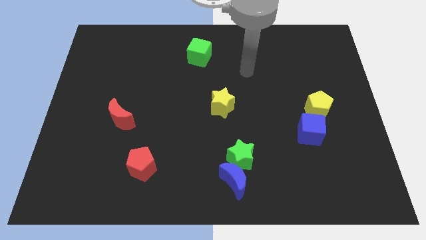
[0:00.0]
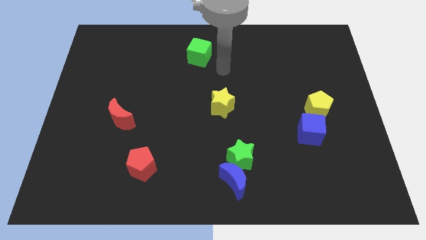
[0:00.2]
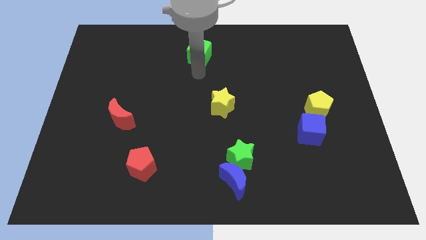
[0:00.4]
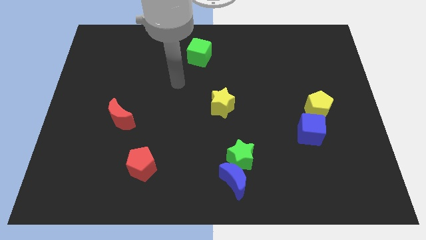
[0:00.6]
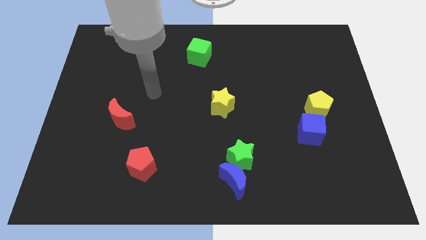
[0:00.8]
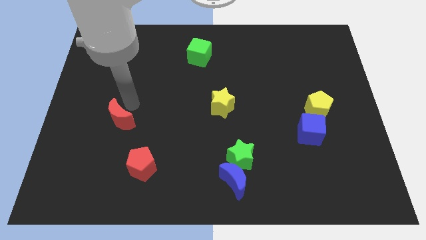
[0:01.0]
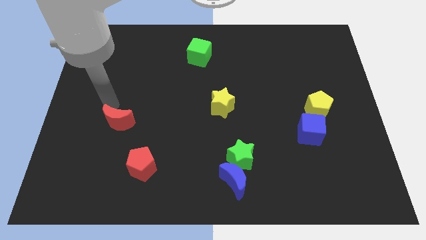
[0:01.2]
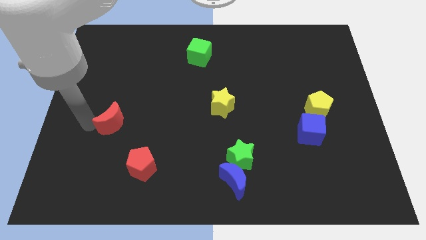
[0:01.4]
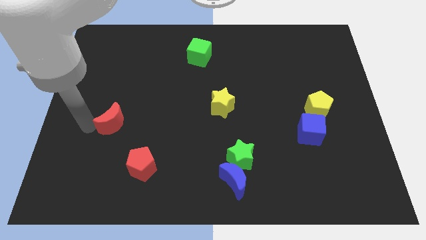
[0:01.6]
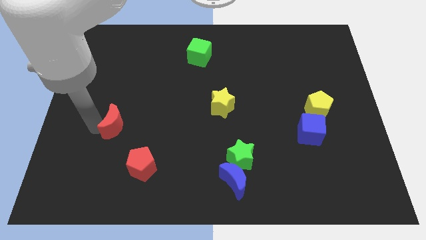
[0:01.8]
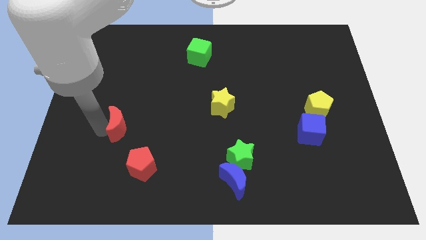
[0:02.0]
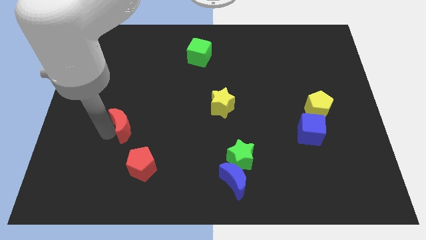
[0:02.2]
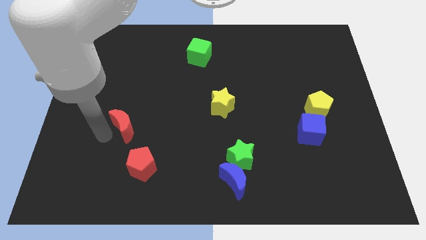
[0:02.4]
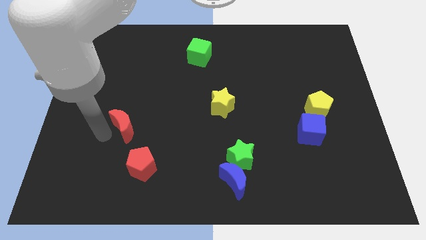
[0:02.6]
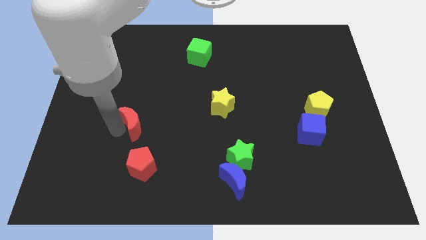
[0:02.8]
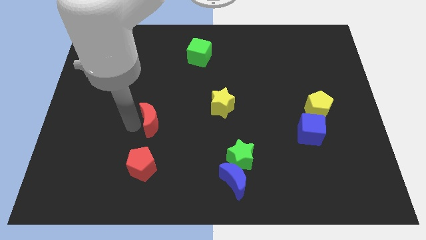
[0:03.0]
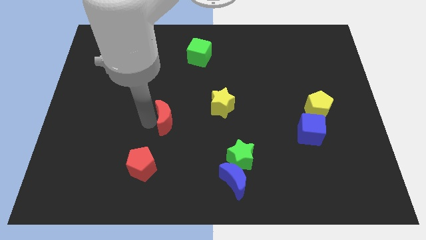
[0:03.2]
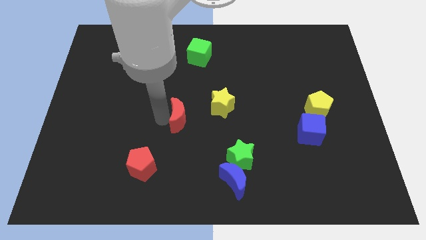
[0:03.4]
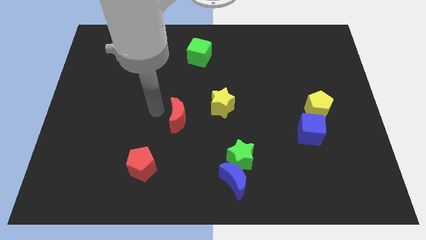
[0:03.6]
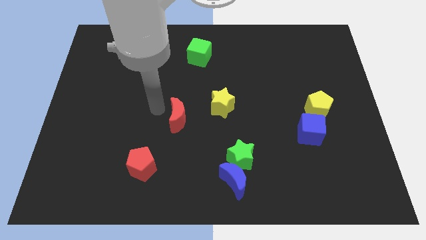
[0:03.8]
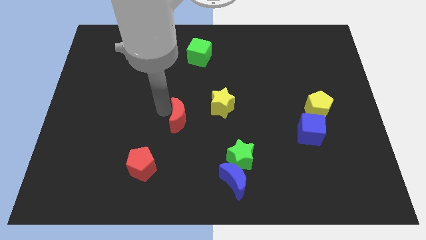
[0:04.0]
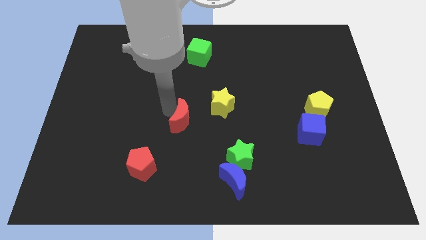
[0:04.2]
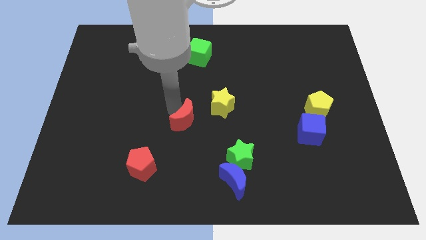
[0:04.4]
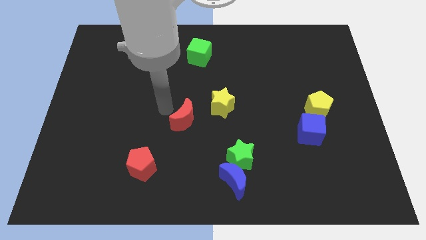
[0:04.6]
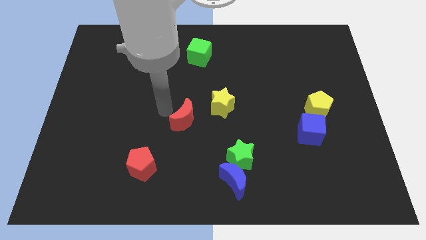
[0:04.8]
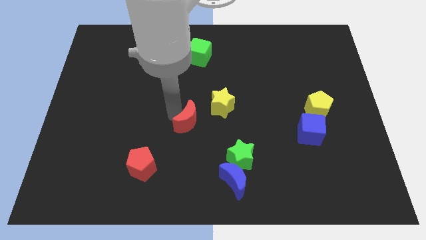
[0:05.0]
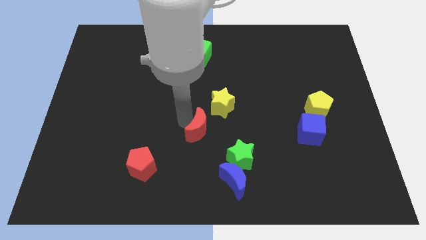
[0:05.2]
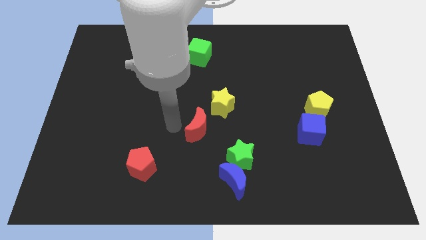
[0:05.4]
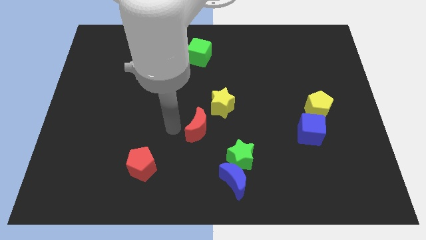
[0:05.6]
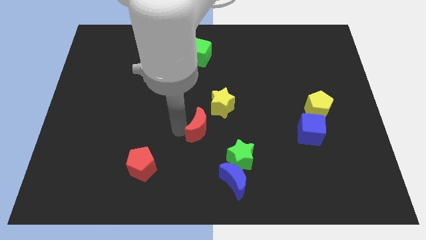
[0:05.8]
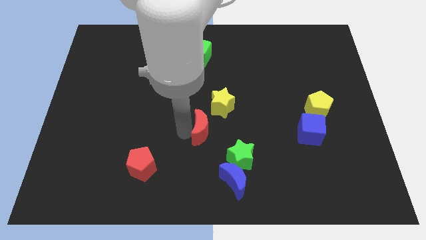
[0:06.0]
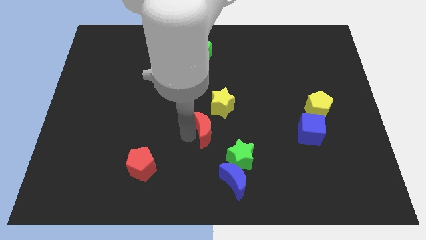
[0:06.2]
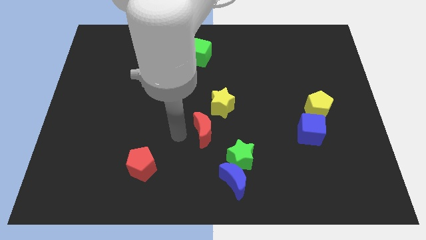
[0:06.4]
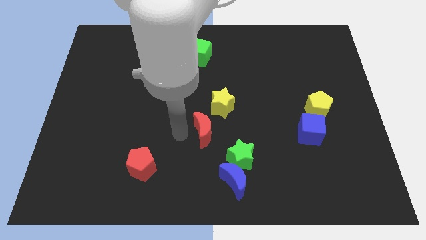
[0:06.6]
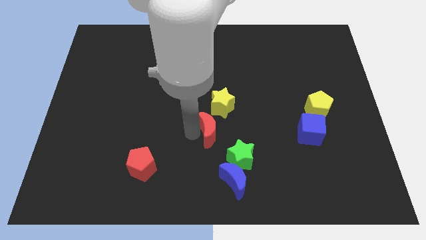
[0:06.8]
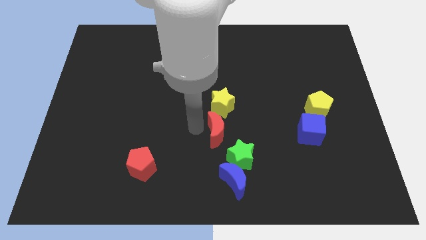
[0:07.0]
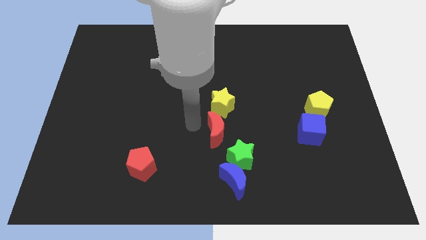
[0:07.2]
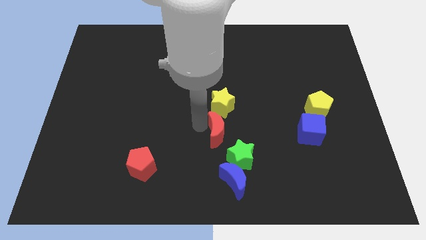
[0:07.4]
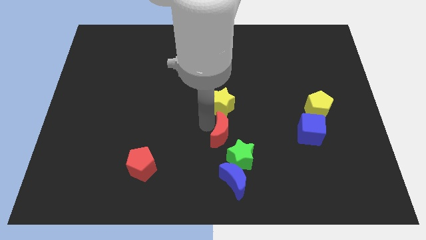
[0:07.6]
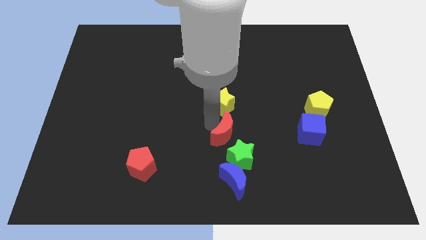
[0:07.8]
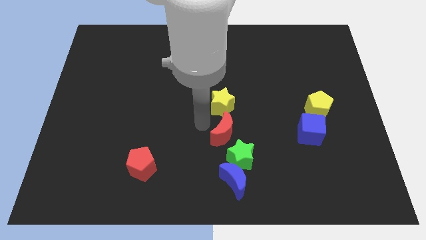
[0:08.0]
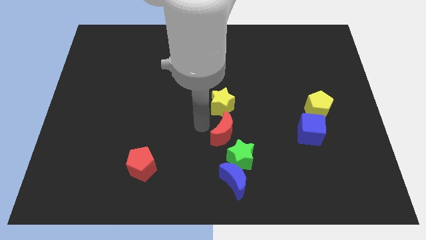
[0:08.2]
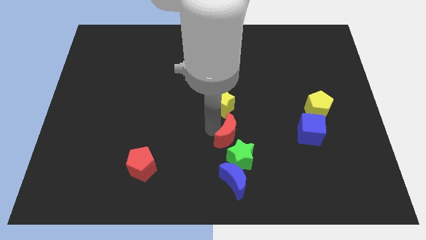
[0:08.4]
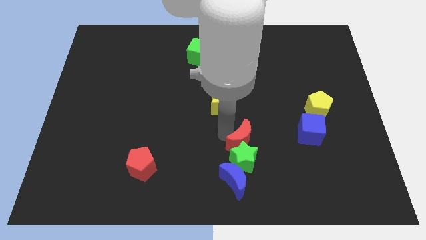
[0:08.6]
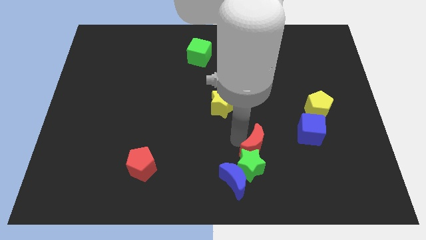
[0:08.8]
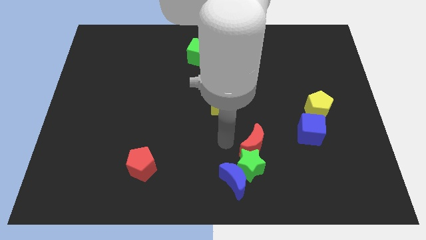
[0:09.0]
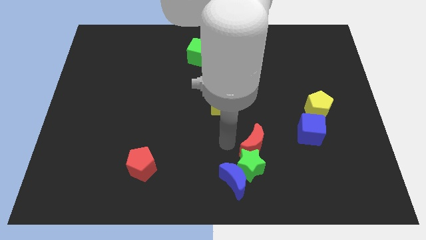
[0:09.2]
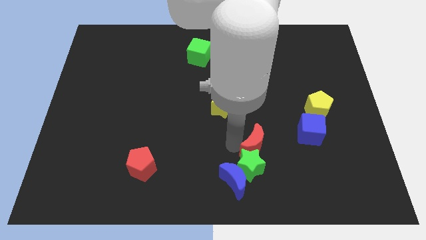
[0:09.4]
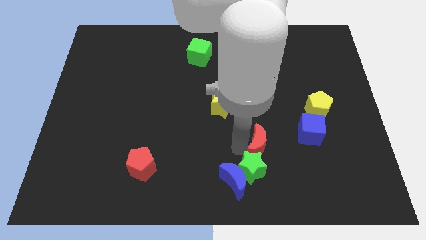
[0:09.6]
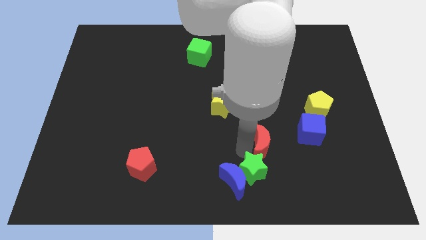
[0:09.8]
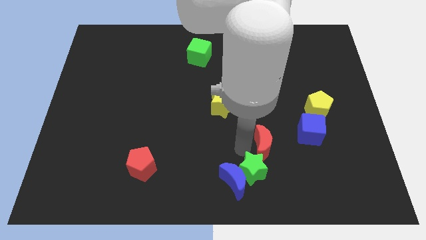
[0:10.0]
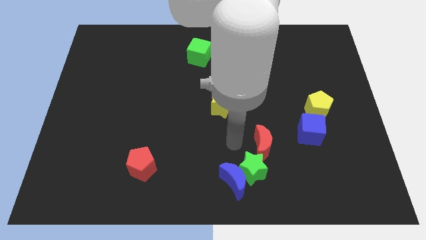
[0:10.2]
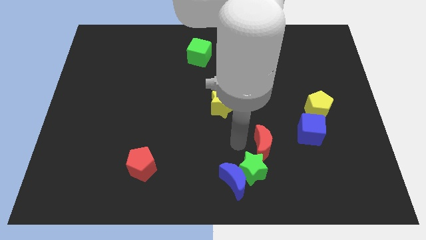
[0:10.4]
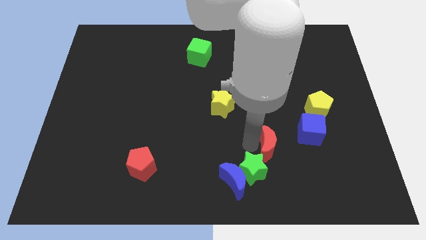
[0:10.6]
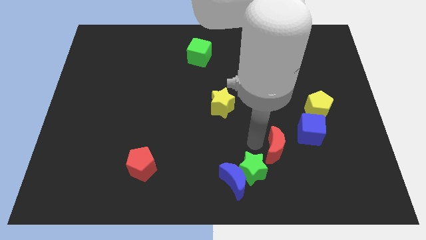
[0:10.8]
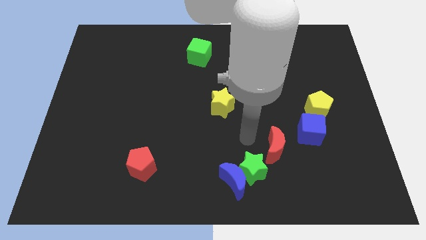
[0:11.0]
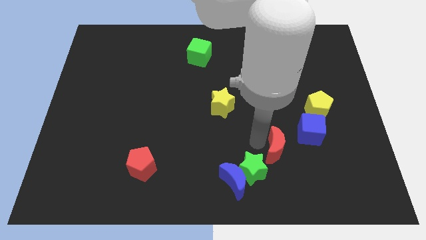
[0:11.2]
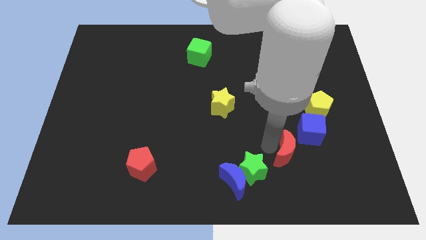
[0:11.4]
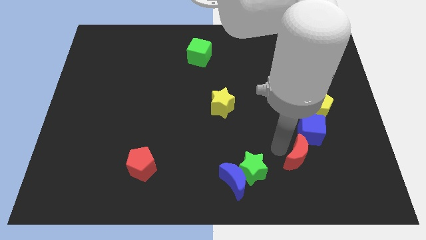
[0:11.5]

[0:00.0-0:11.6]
put the red moon below the blue cube

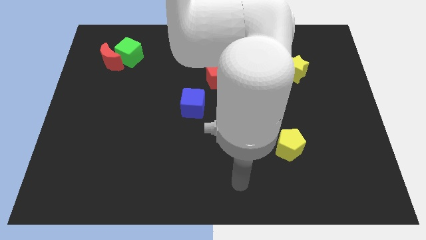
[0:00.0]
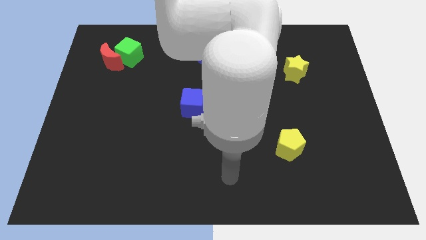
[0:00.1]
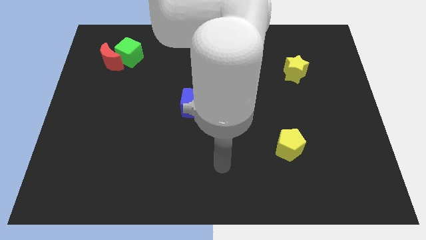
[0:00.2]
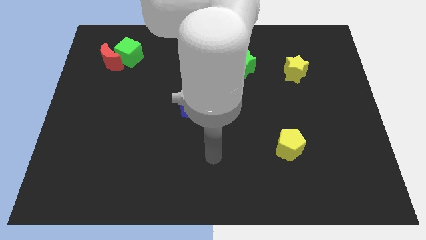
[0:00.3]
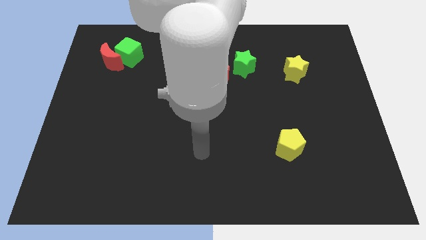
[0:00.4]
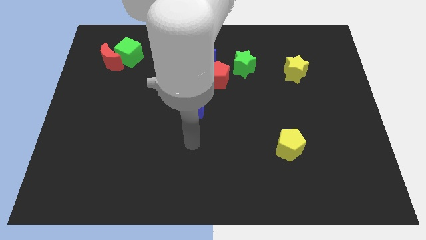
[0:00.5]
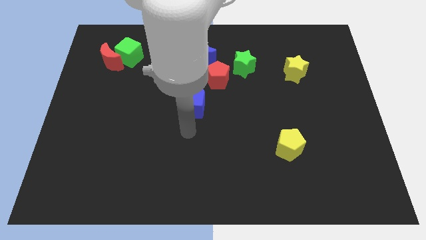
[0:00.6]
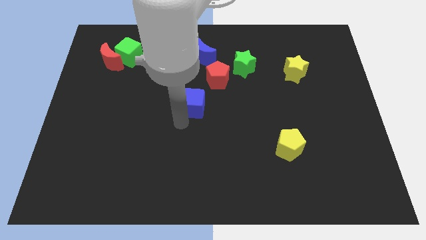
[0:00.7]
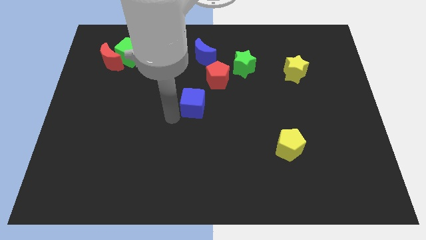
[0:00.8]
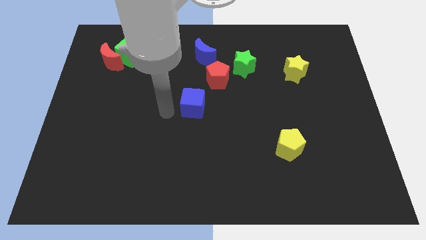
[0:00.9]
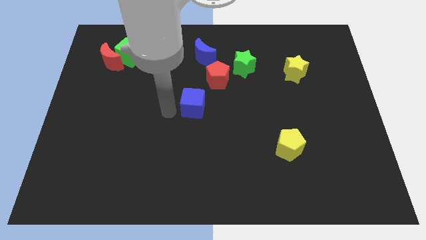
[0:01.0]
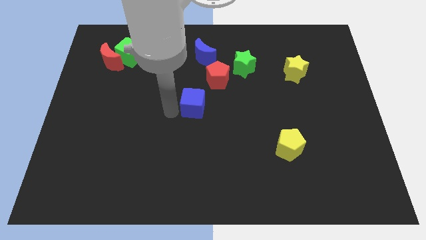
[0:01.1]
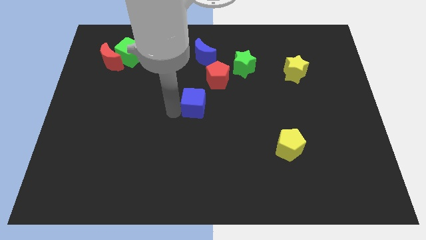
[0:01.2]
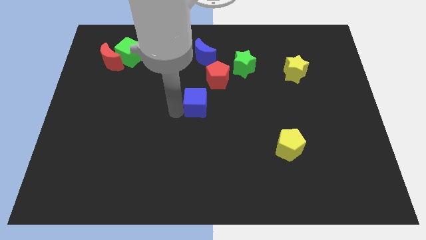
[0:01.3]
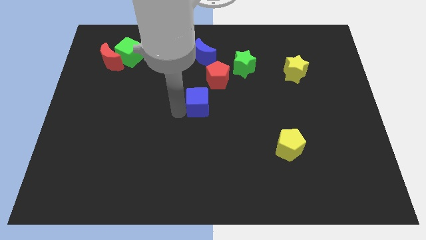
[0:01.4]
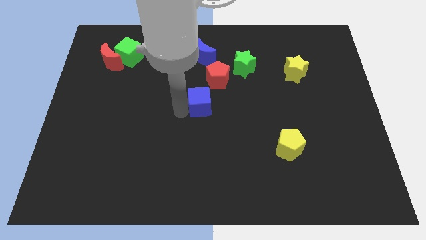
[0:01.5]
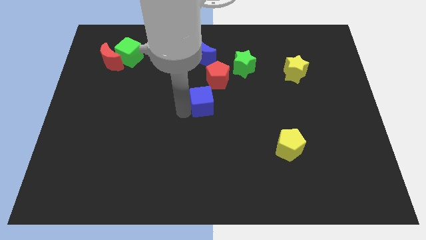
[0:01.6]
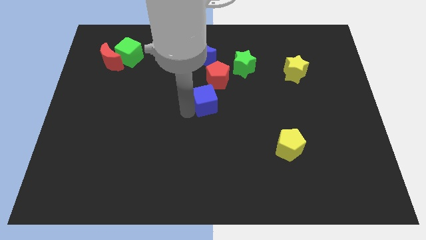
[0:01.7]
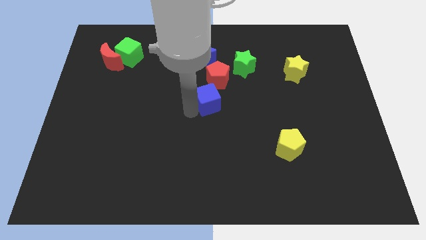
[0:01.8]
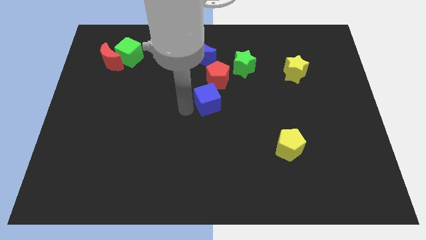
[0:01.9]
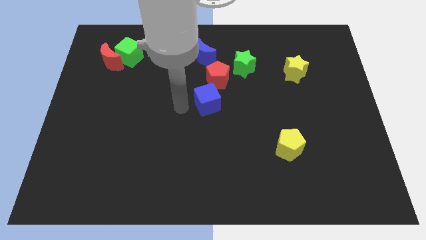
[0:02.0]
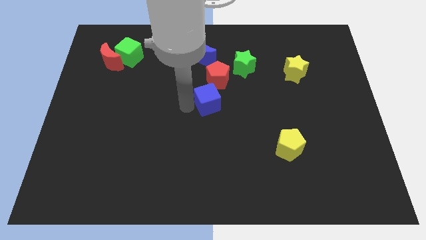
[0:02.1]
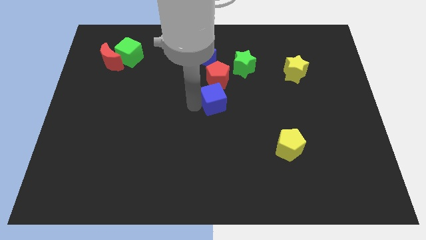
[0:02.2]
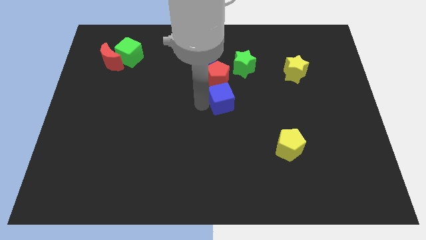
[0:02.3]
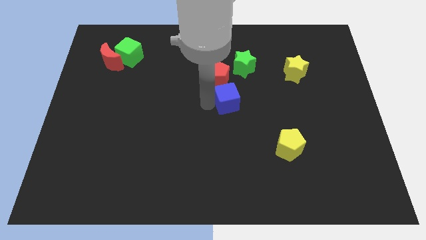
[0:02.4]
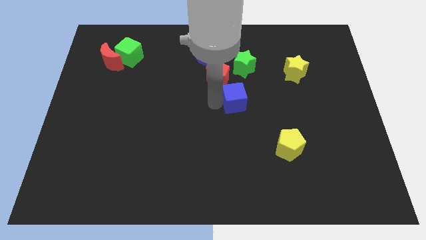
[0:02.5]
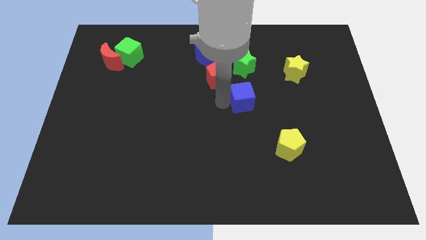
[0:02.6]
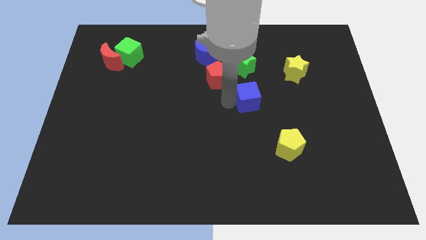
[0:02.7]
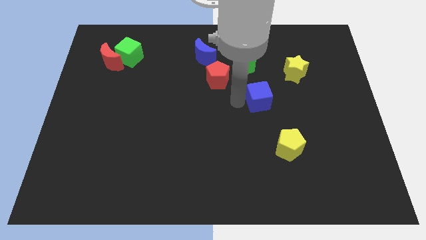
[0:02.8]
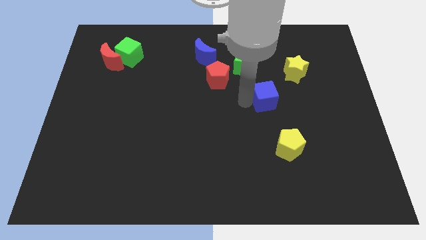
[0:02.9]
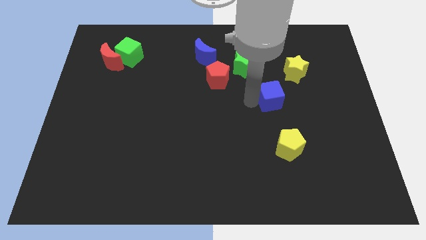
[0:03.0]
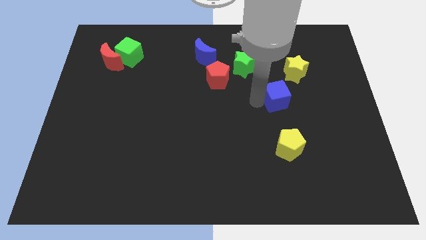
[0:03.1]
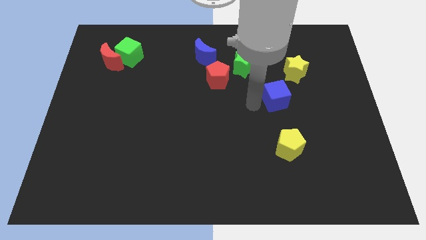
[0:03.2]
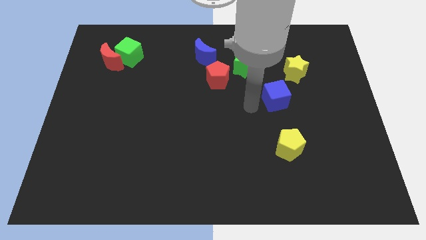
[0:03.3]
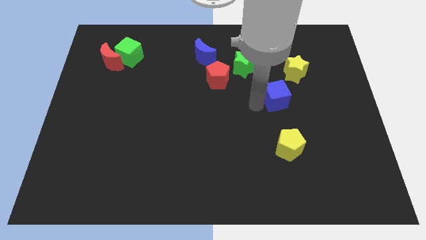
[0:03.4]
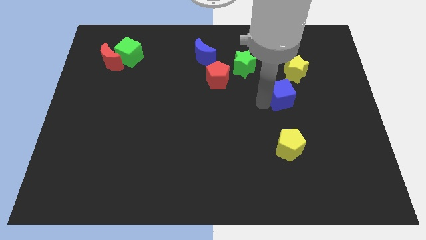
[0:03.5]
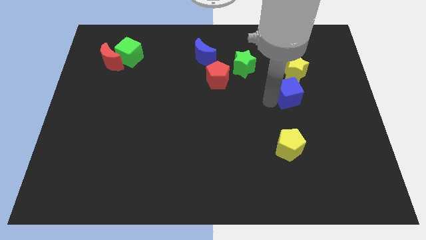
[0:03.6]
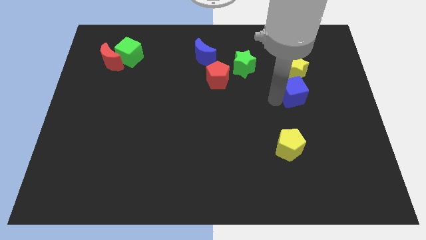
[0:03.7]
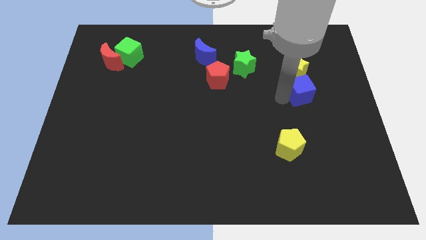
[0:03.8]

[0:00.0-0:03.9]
put the blue cube to the bottom right of the yellow star
